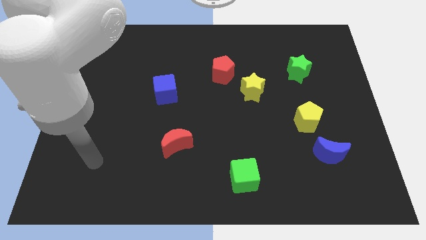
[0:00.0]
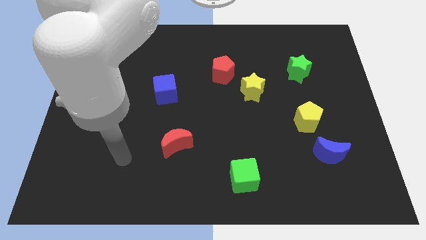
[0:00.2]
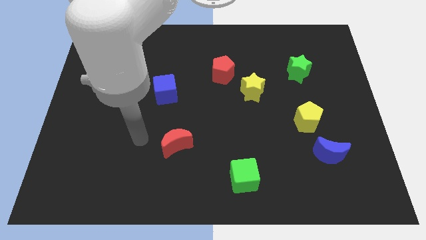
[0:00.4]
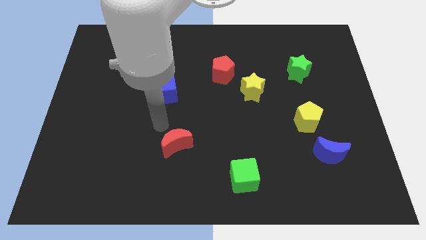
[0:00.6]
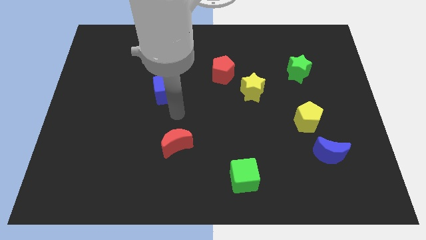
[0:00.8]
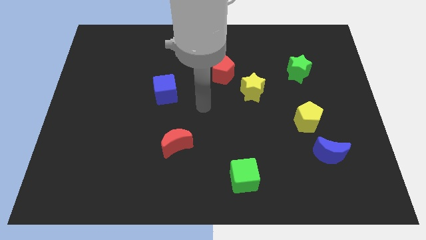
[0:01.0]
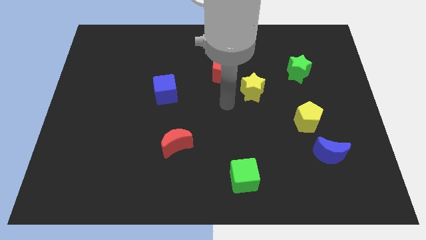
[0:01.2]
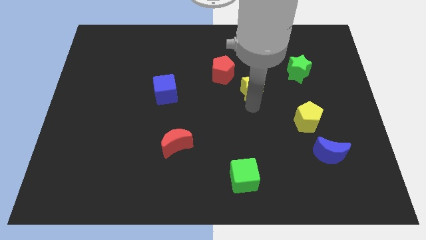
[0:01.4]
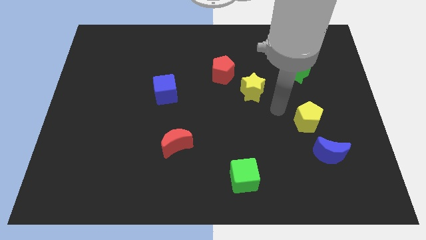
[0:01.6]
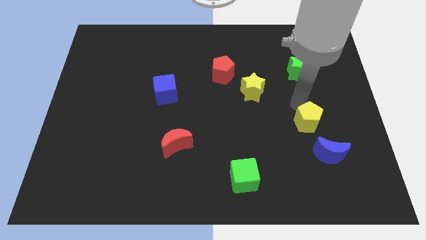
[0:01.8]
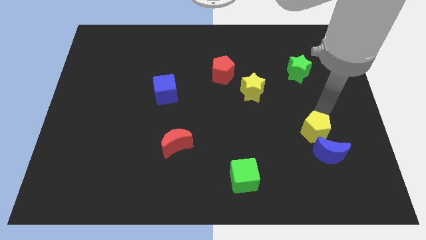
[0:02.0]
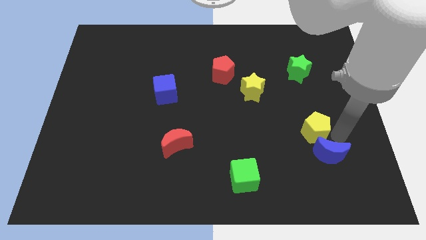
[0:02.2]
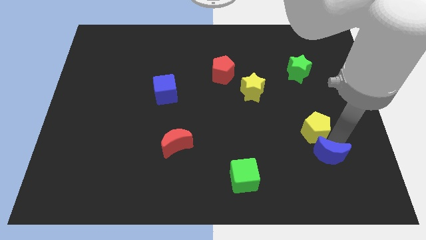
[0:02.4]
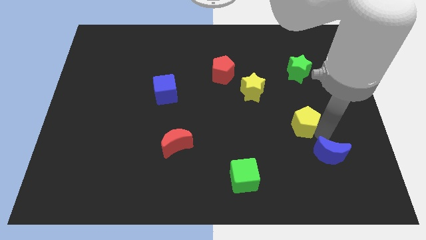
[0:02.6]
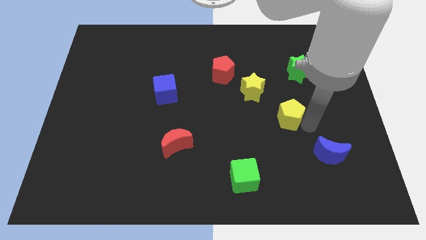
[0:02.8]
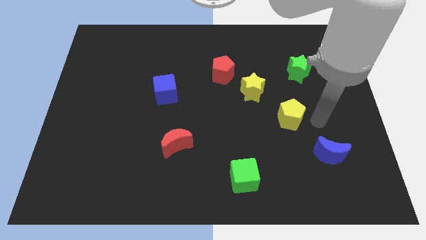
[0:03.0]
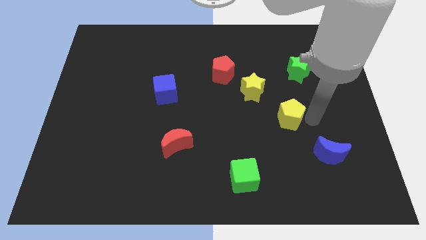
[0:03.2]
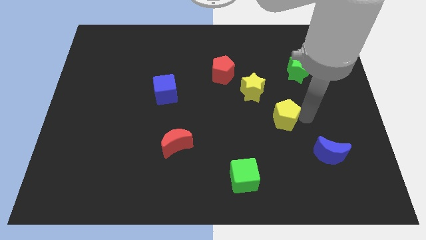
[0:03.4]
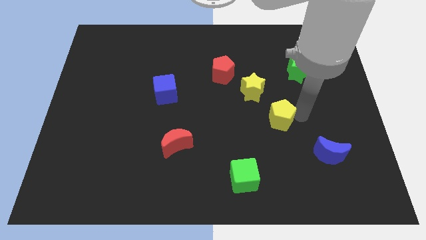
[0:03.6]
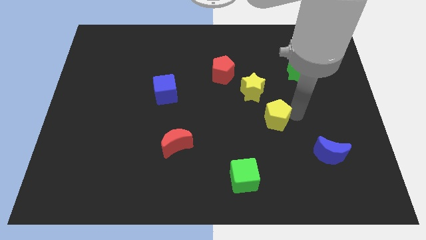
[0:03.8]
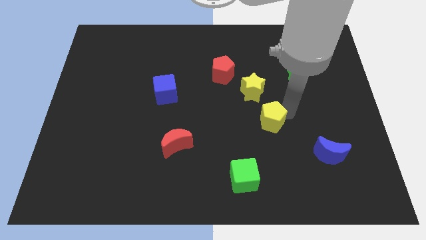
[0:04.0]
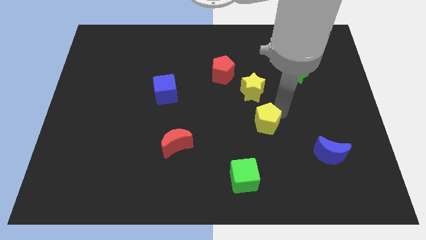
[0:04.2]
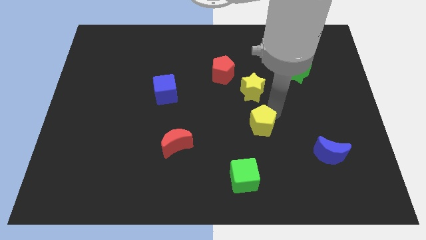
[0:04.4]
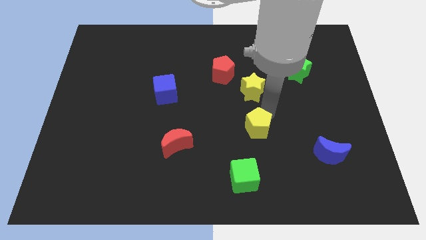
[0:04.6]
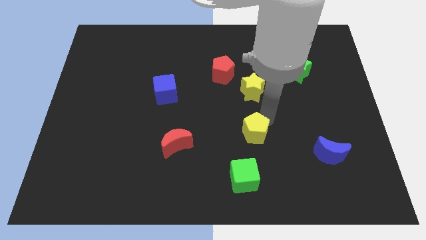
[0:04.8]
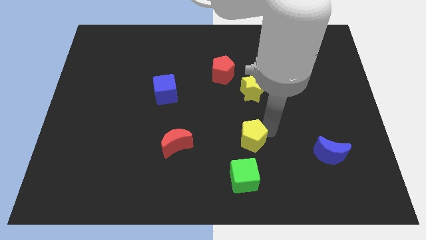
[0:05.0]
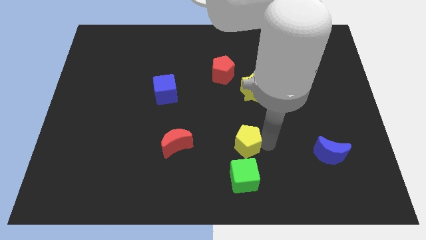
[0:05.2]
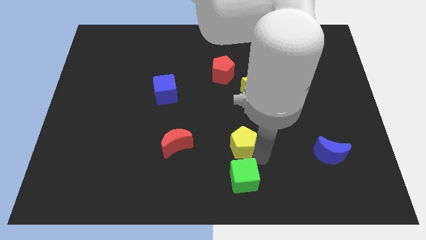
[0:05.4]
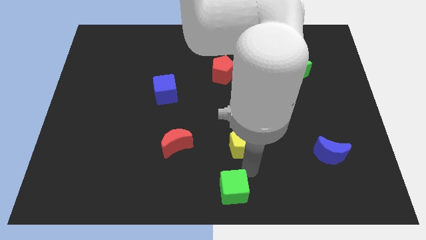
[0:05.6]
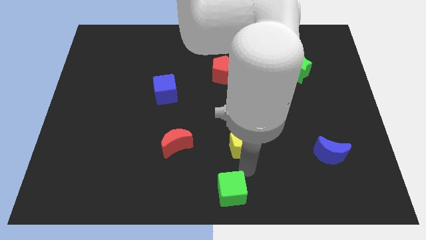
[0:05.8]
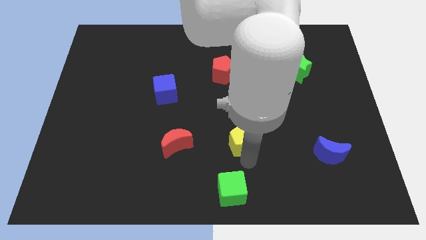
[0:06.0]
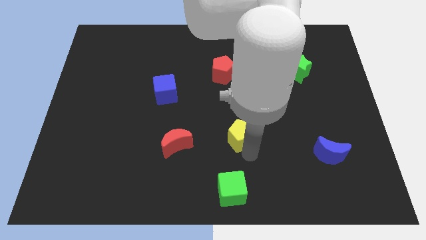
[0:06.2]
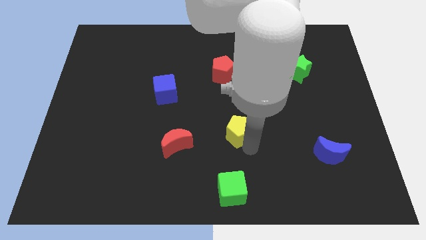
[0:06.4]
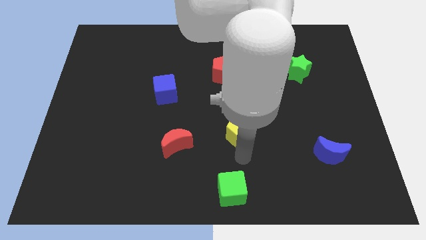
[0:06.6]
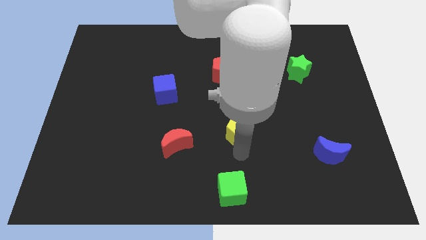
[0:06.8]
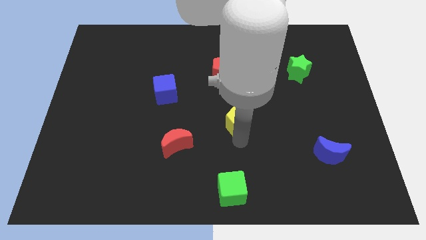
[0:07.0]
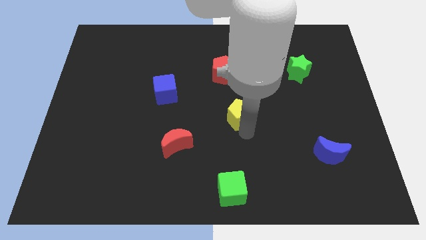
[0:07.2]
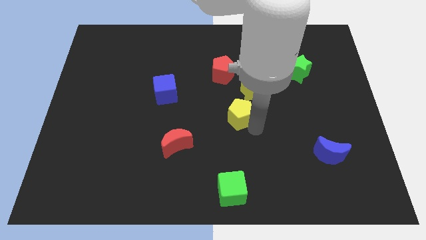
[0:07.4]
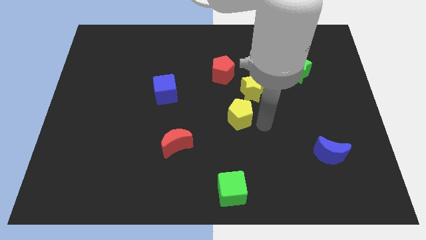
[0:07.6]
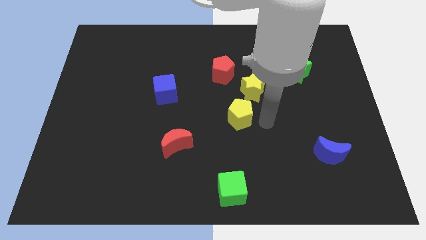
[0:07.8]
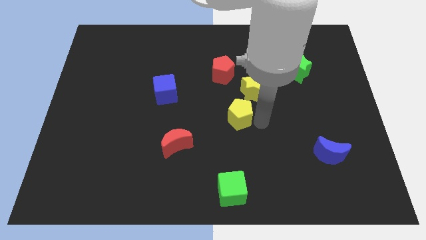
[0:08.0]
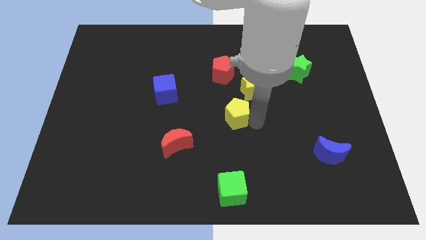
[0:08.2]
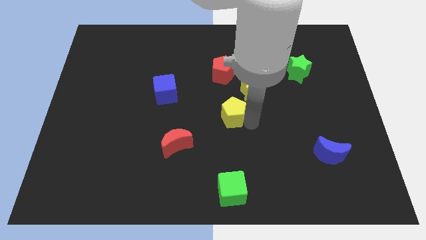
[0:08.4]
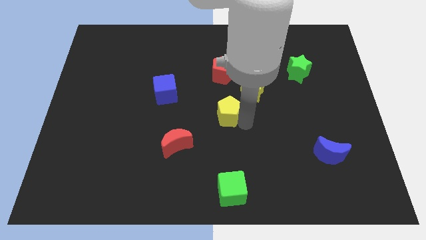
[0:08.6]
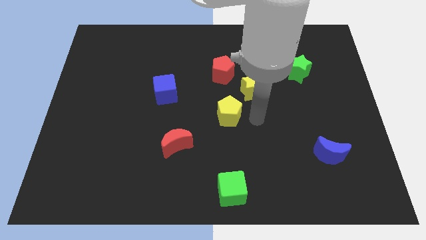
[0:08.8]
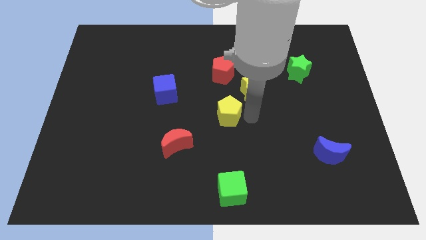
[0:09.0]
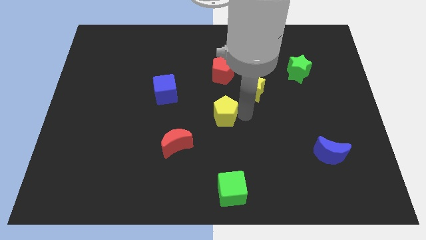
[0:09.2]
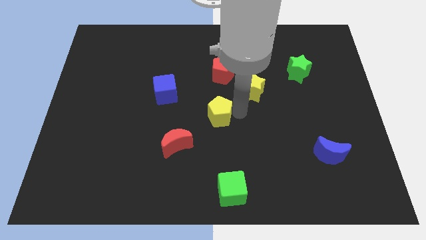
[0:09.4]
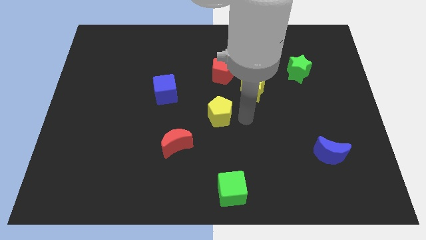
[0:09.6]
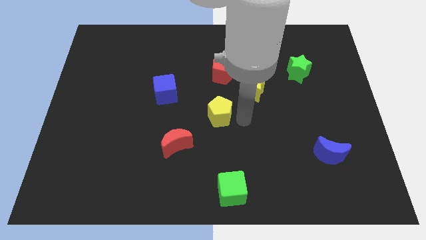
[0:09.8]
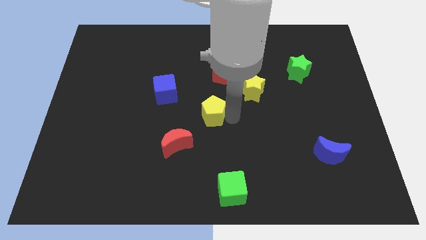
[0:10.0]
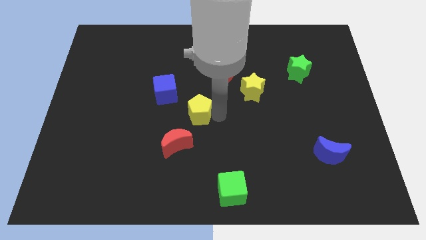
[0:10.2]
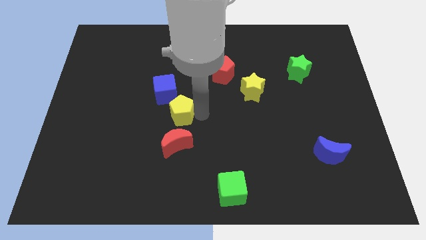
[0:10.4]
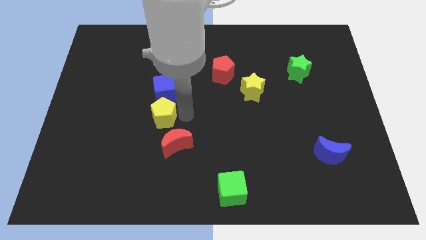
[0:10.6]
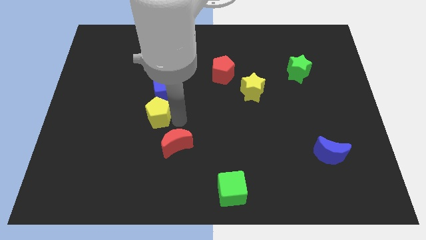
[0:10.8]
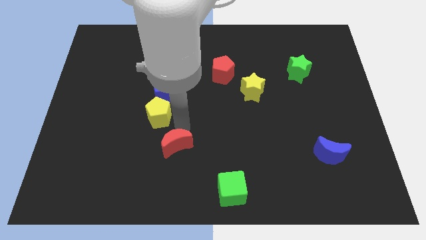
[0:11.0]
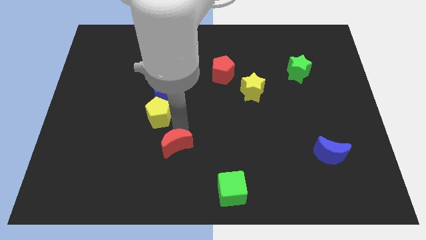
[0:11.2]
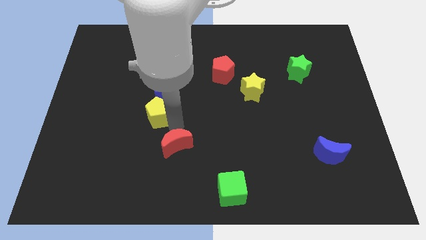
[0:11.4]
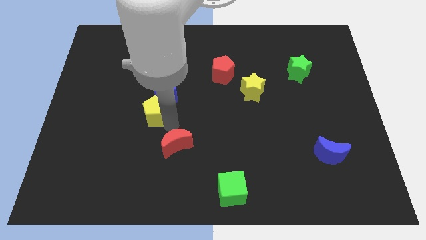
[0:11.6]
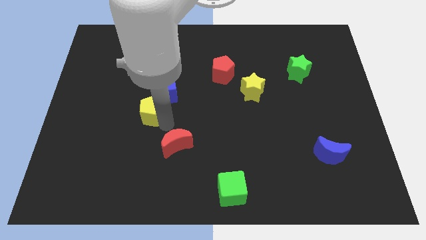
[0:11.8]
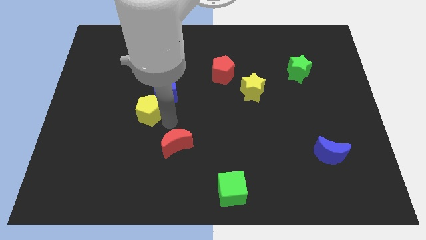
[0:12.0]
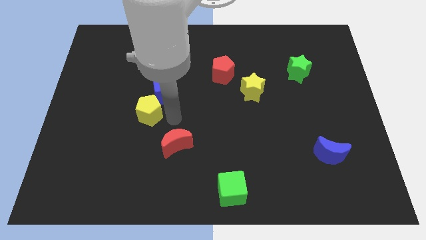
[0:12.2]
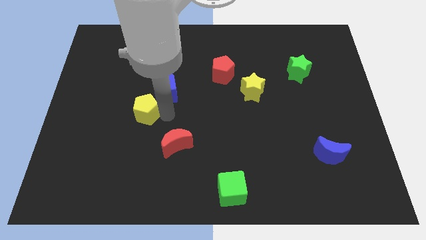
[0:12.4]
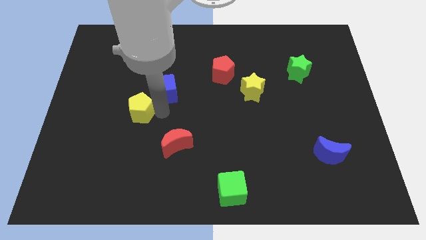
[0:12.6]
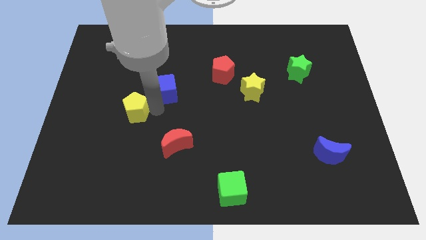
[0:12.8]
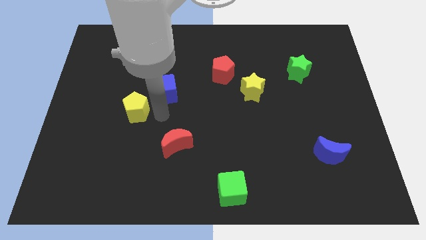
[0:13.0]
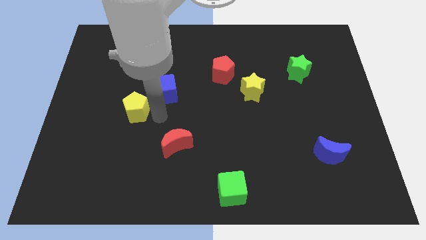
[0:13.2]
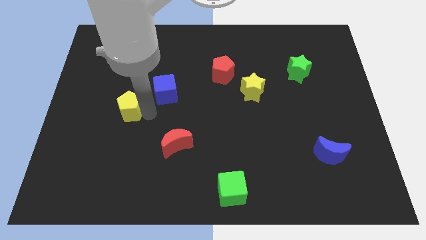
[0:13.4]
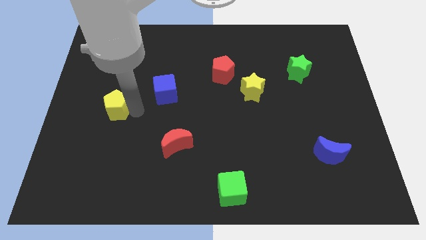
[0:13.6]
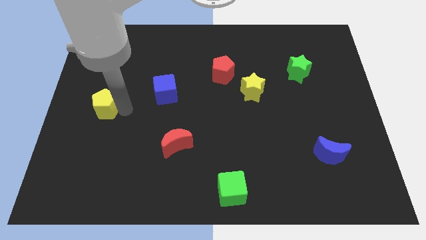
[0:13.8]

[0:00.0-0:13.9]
push the yellow pentagon to the left side of the board

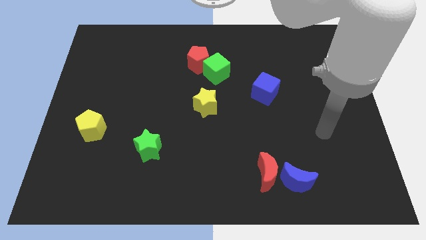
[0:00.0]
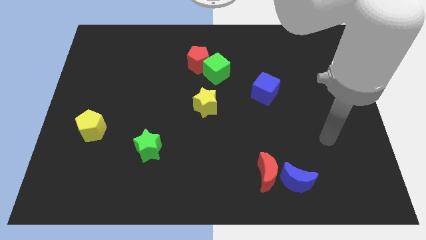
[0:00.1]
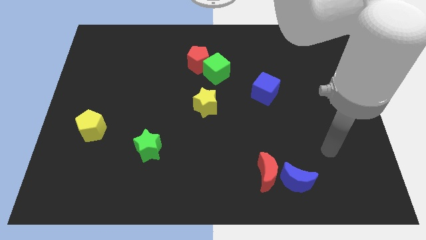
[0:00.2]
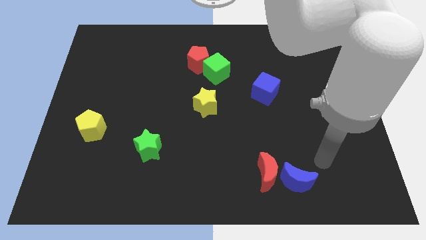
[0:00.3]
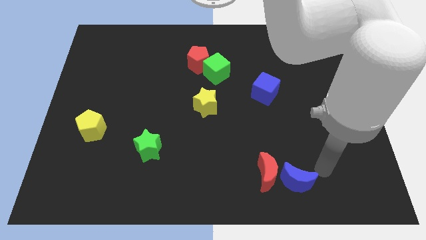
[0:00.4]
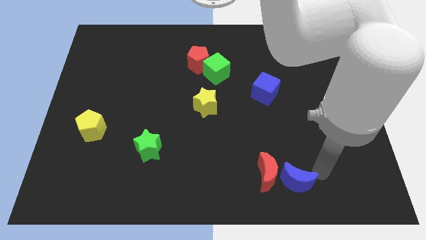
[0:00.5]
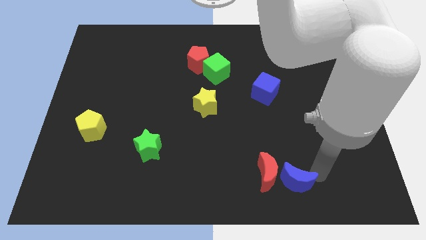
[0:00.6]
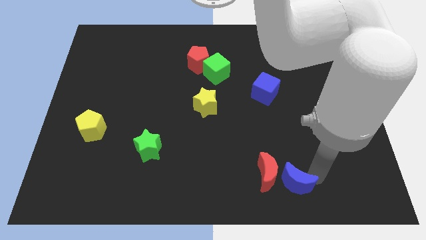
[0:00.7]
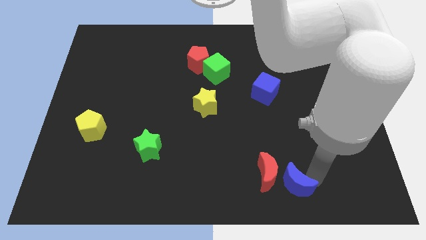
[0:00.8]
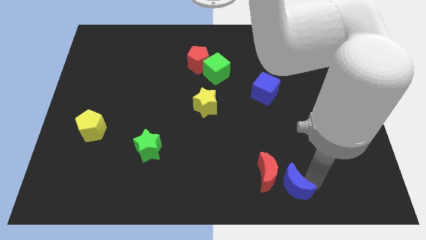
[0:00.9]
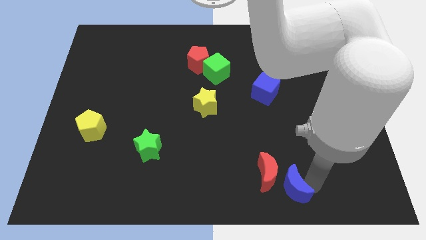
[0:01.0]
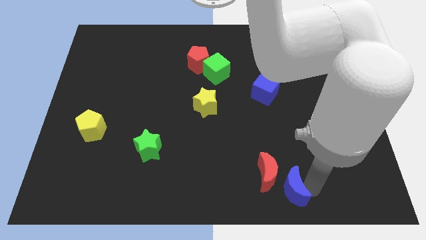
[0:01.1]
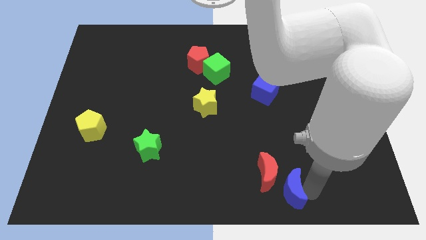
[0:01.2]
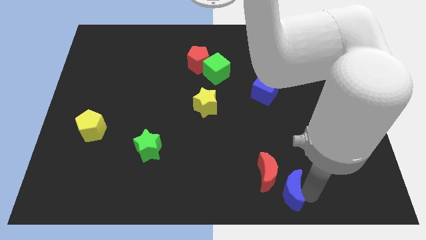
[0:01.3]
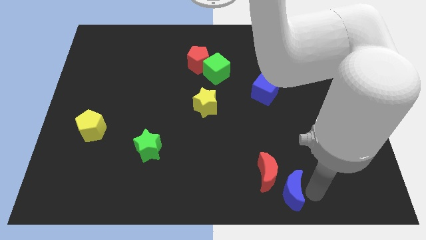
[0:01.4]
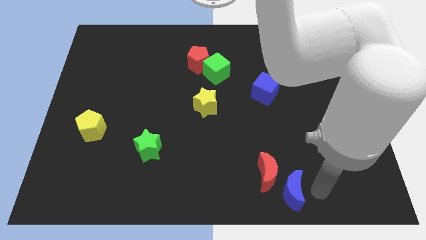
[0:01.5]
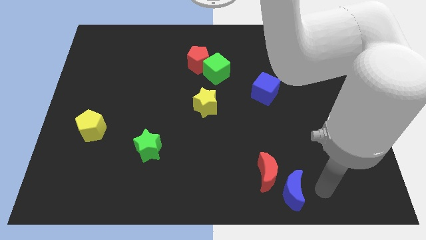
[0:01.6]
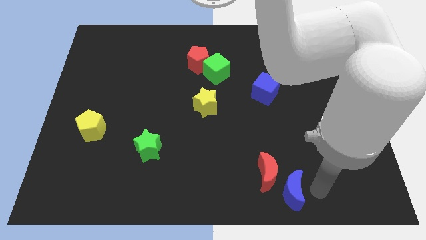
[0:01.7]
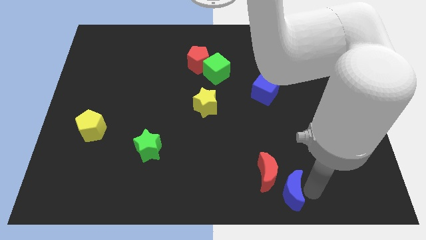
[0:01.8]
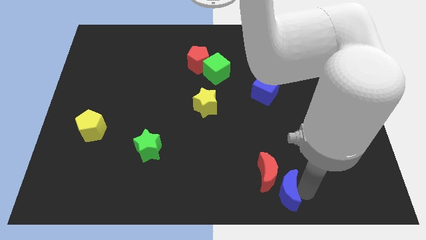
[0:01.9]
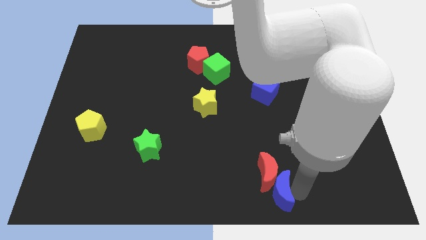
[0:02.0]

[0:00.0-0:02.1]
slide the blue moon to the bottom
